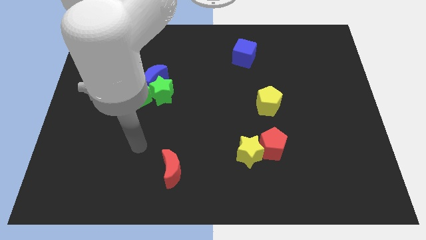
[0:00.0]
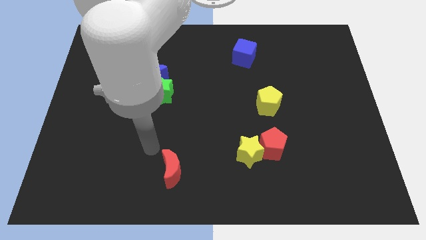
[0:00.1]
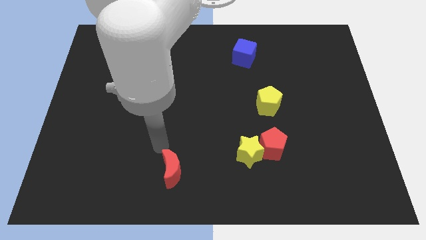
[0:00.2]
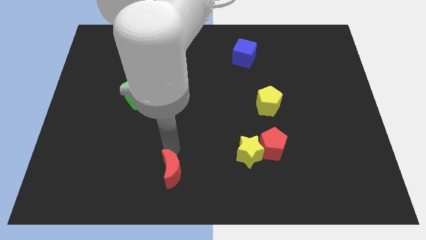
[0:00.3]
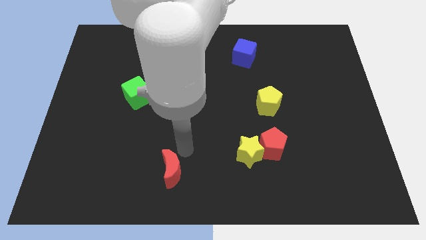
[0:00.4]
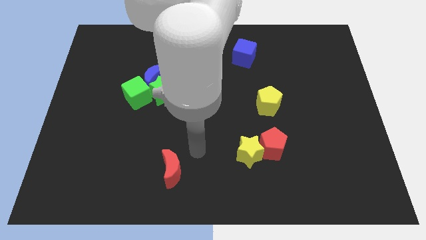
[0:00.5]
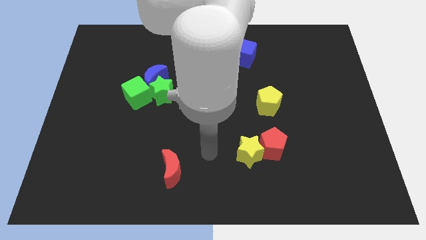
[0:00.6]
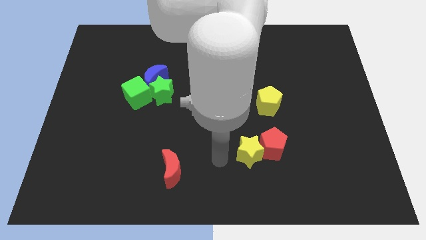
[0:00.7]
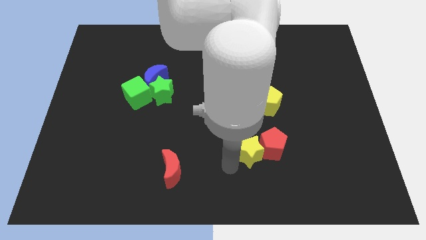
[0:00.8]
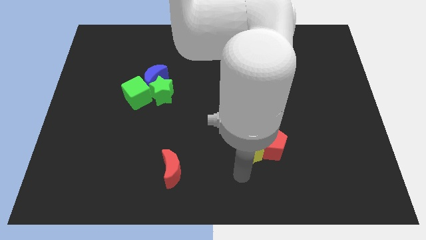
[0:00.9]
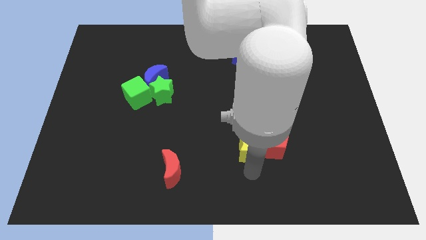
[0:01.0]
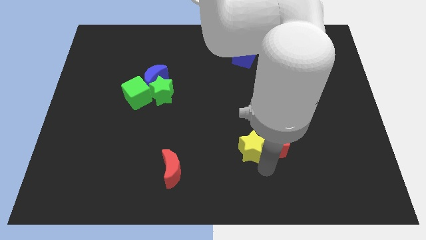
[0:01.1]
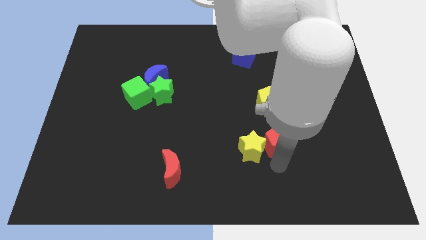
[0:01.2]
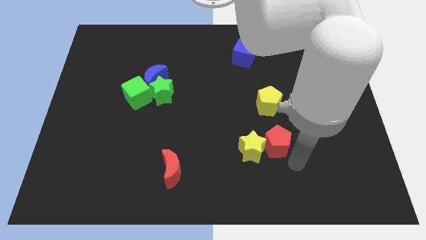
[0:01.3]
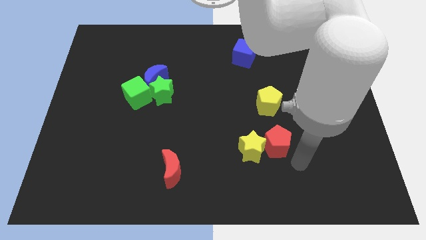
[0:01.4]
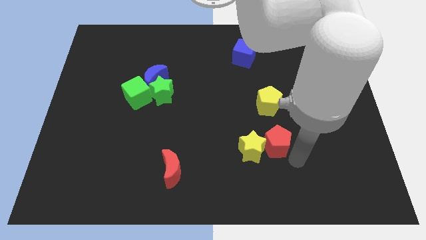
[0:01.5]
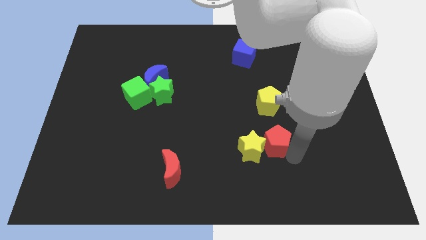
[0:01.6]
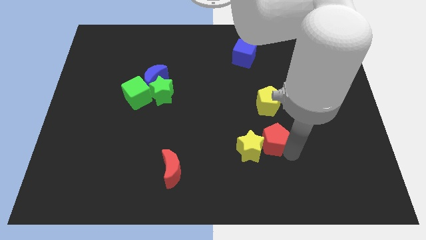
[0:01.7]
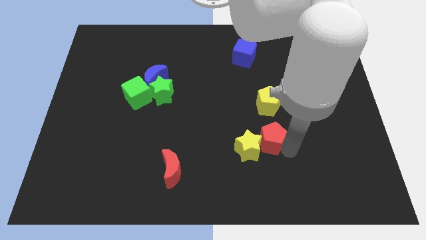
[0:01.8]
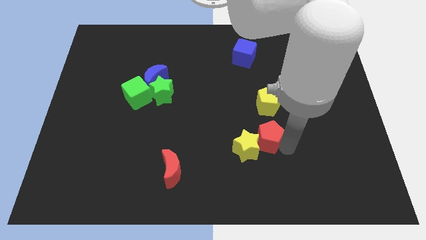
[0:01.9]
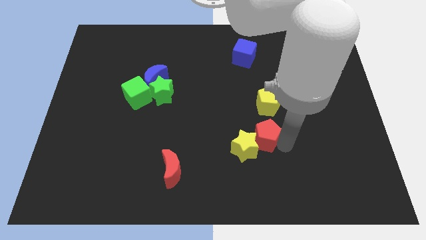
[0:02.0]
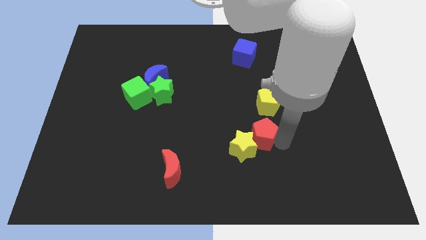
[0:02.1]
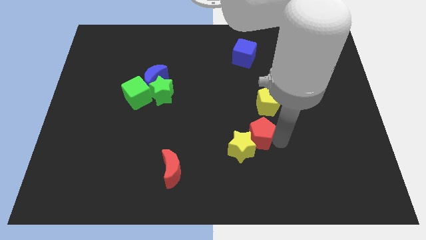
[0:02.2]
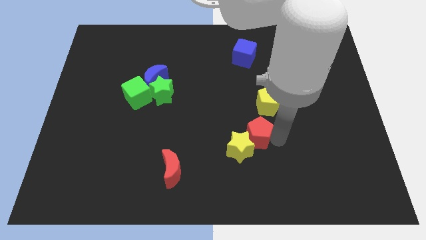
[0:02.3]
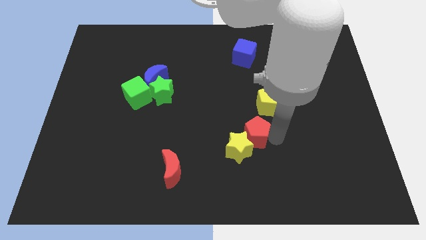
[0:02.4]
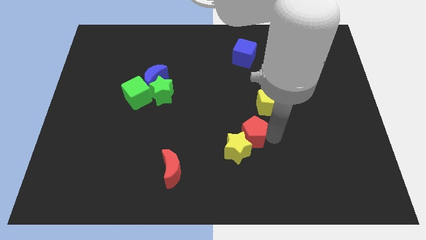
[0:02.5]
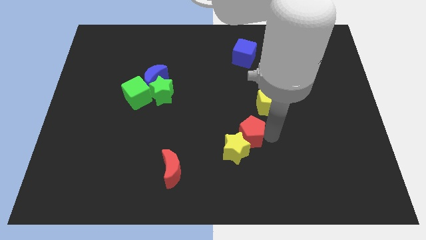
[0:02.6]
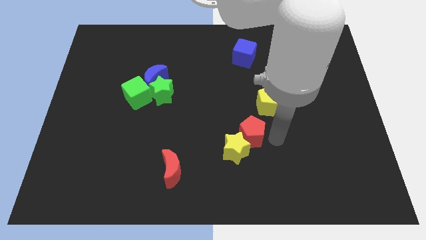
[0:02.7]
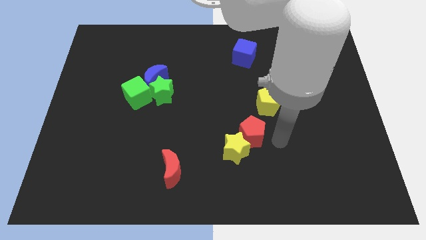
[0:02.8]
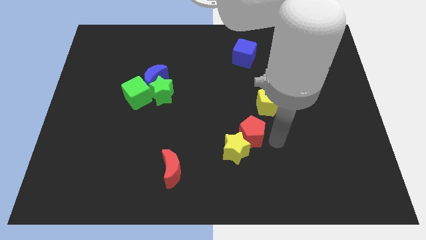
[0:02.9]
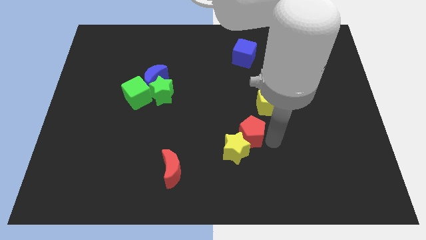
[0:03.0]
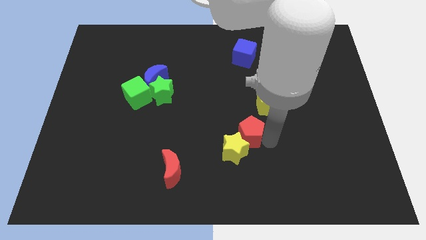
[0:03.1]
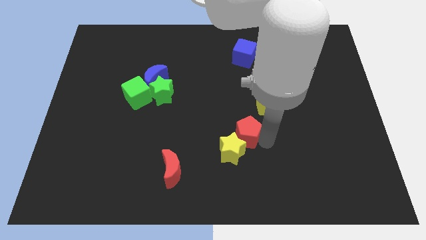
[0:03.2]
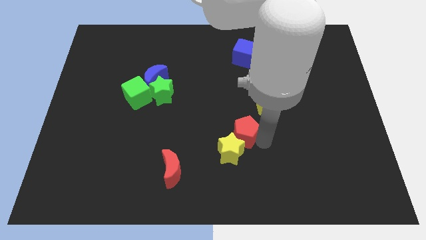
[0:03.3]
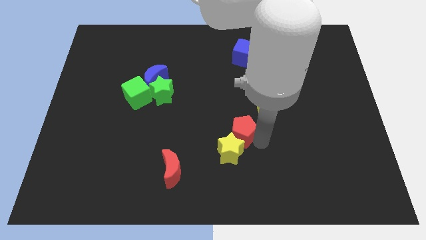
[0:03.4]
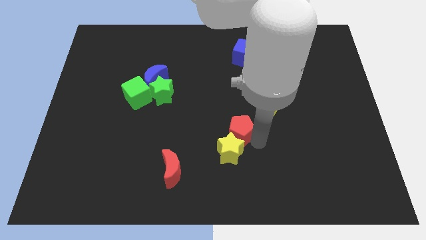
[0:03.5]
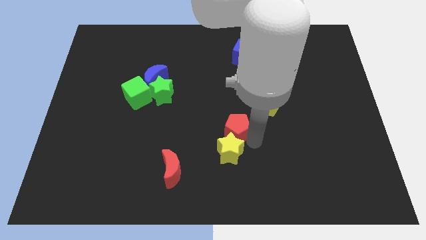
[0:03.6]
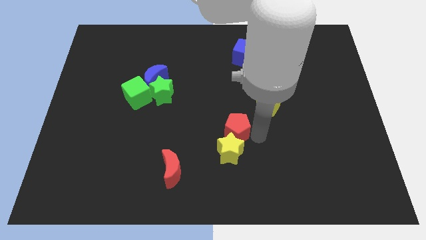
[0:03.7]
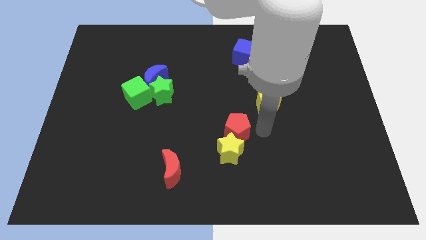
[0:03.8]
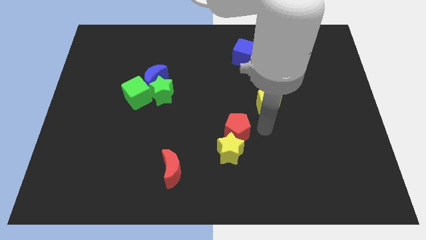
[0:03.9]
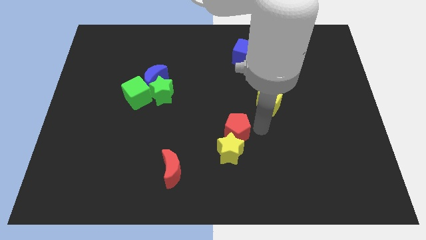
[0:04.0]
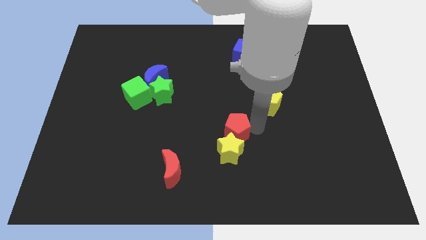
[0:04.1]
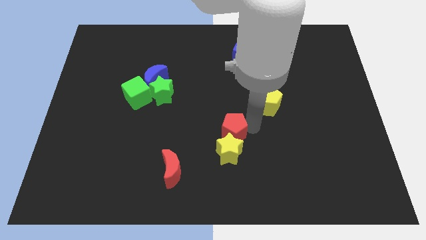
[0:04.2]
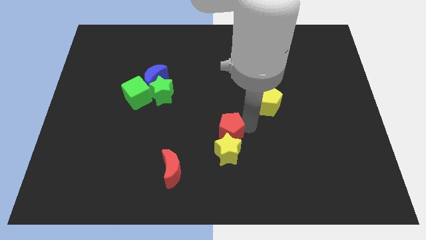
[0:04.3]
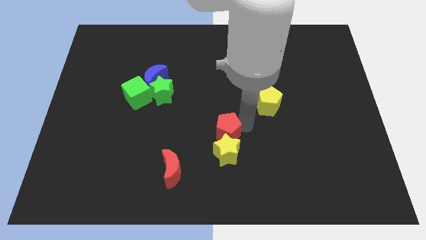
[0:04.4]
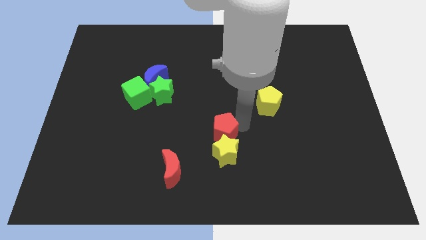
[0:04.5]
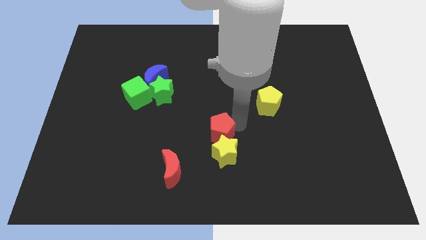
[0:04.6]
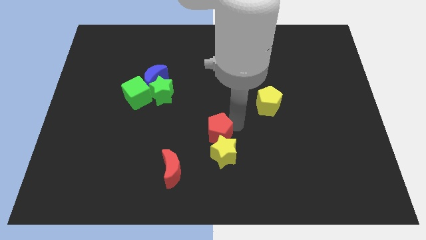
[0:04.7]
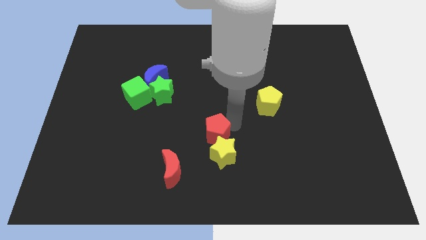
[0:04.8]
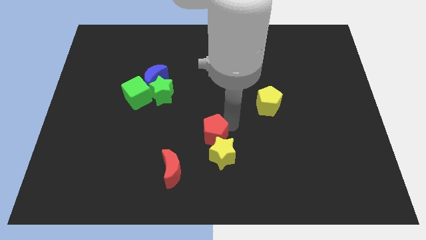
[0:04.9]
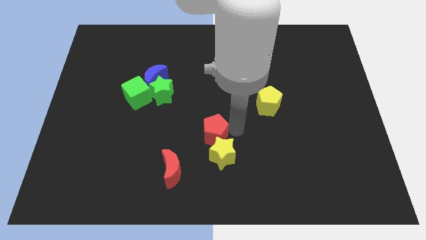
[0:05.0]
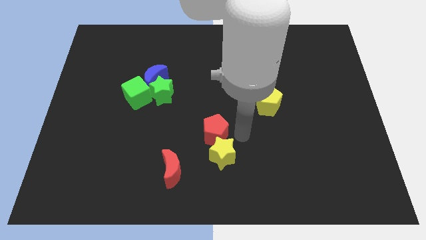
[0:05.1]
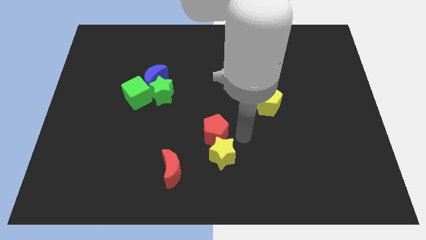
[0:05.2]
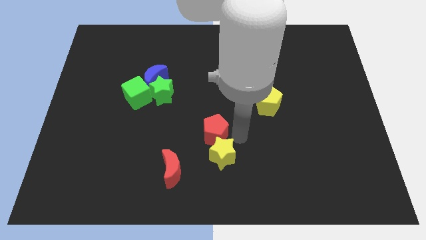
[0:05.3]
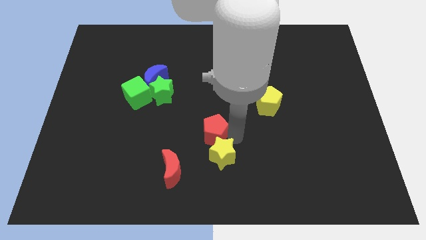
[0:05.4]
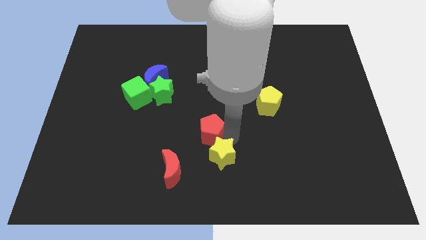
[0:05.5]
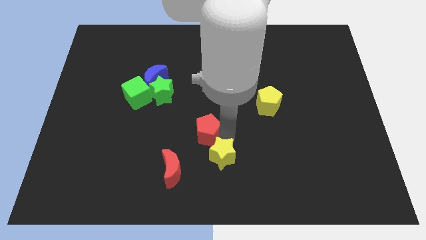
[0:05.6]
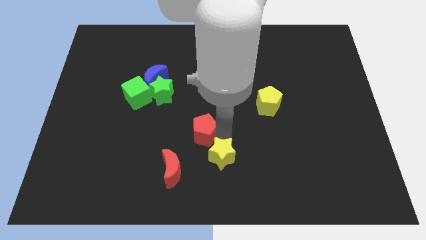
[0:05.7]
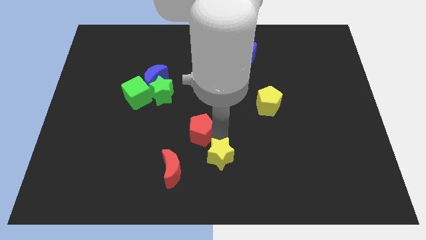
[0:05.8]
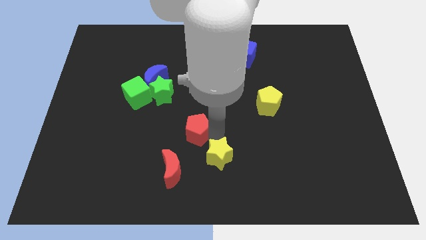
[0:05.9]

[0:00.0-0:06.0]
put the red pentagon above the red moon

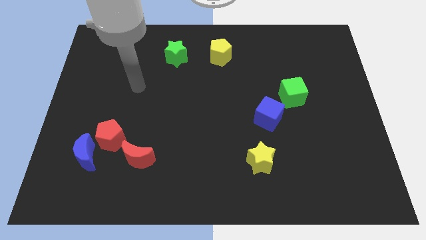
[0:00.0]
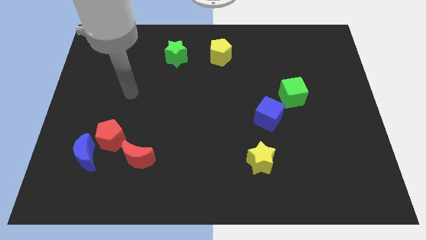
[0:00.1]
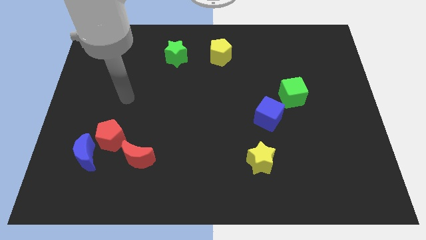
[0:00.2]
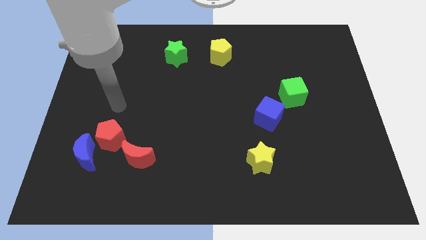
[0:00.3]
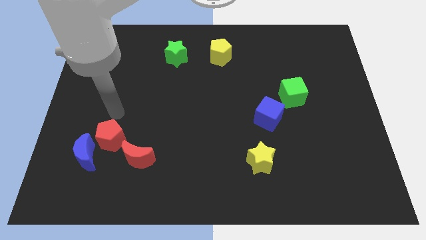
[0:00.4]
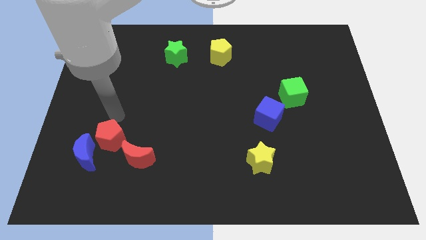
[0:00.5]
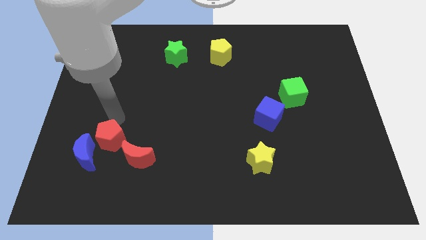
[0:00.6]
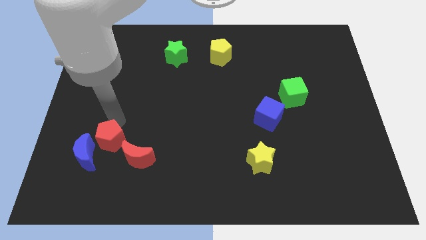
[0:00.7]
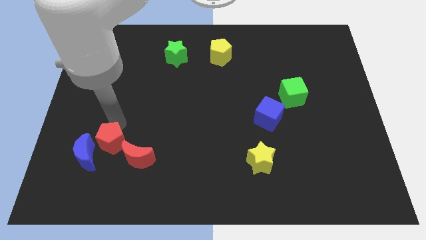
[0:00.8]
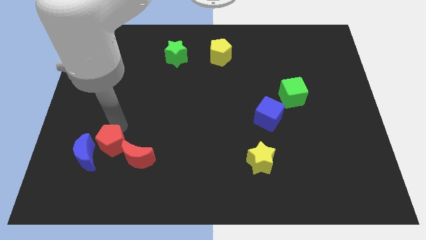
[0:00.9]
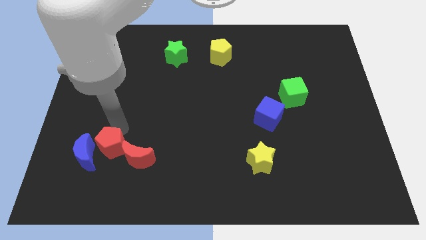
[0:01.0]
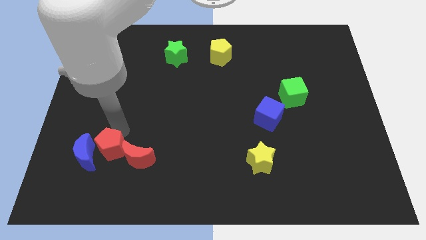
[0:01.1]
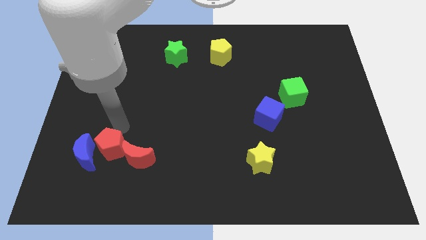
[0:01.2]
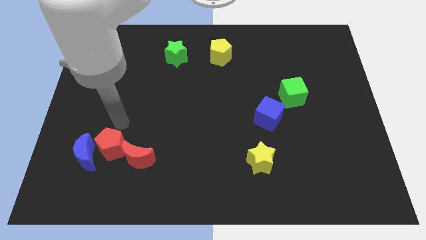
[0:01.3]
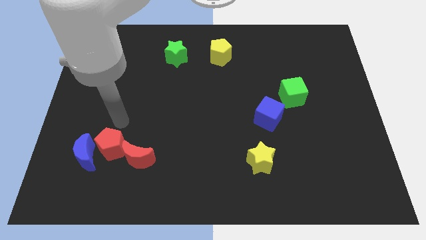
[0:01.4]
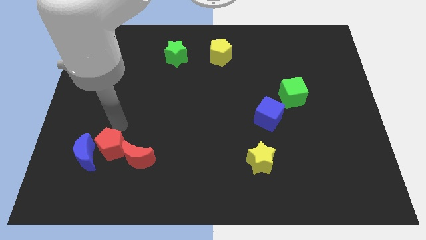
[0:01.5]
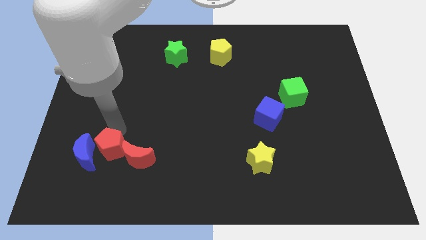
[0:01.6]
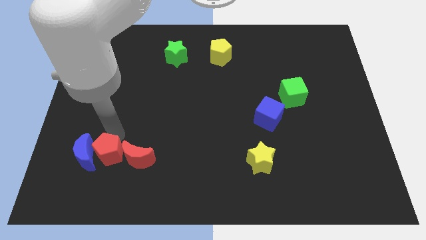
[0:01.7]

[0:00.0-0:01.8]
push the red pentagon diagonally down and to the right of the blue moon

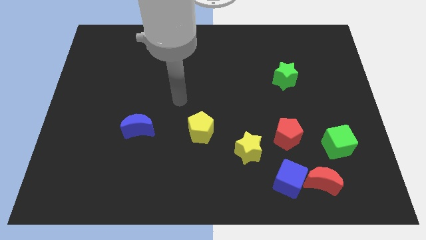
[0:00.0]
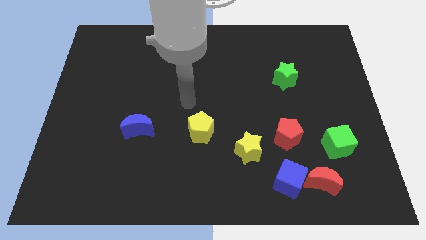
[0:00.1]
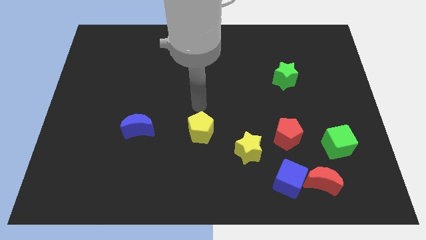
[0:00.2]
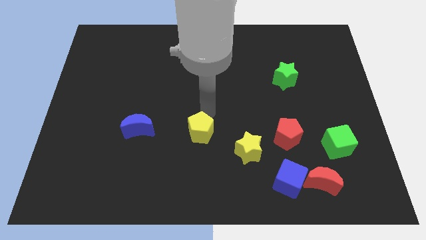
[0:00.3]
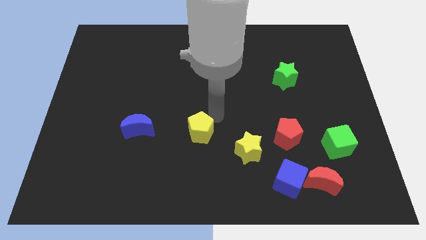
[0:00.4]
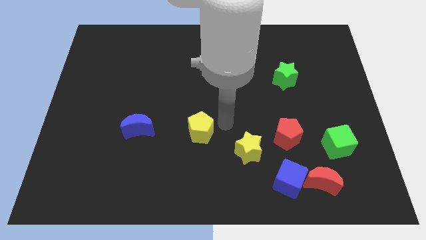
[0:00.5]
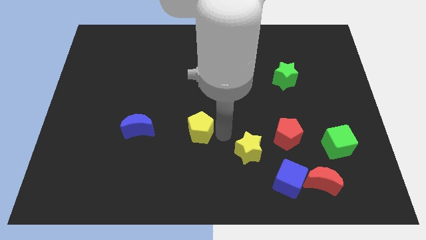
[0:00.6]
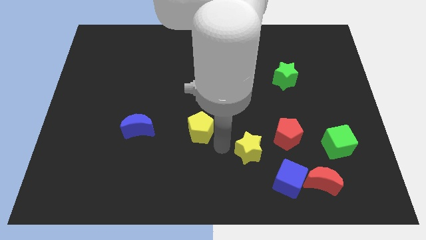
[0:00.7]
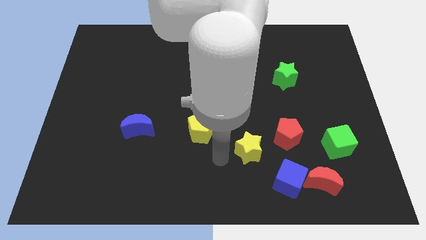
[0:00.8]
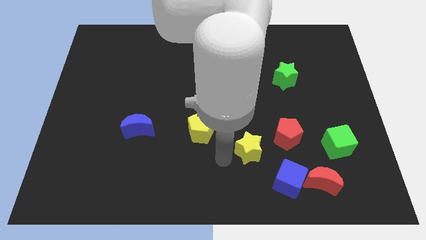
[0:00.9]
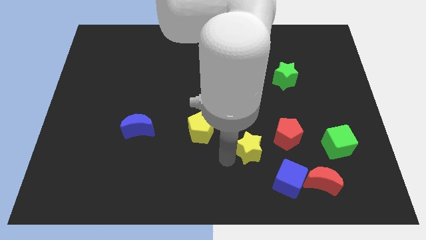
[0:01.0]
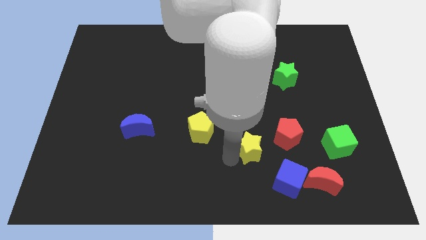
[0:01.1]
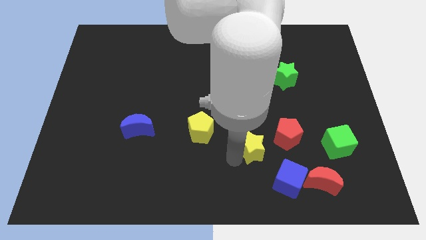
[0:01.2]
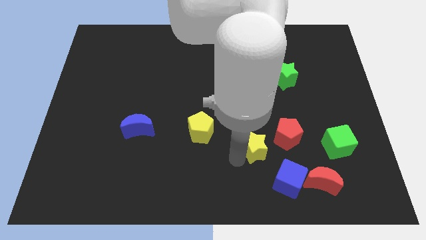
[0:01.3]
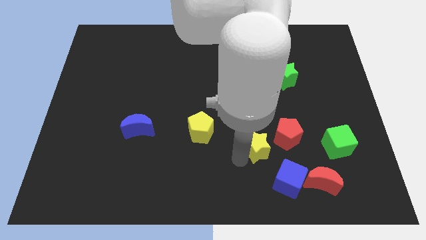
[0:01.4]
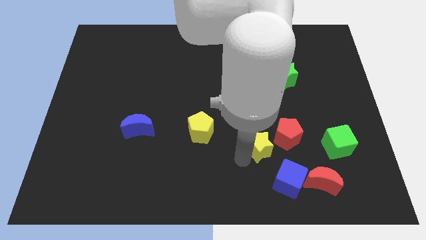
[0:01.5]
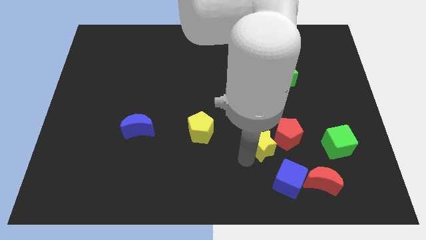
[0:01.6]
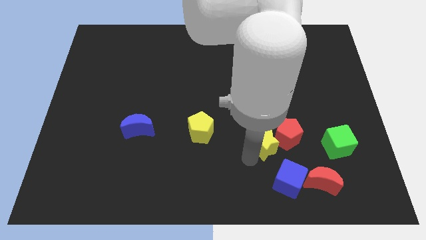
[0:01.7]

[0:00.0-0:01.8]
put the yellow star to the left of the green cube
